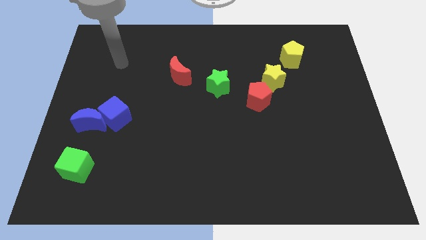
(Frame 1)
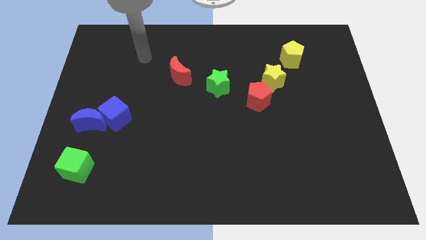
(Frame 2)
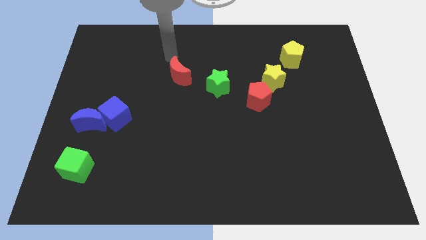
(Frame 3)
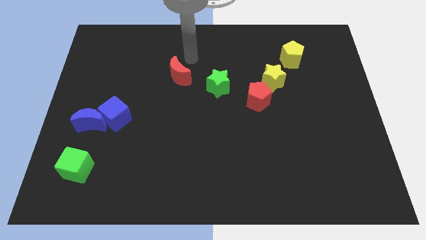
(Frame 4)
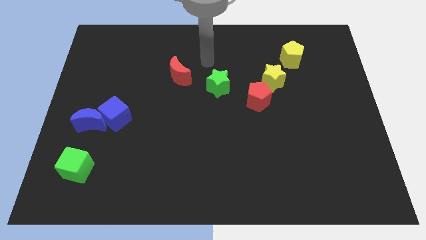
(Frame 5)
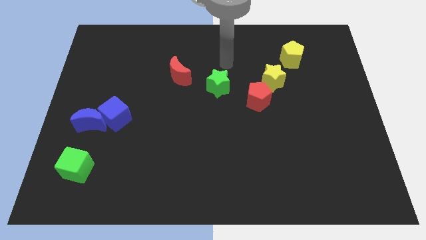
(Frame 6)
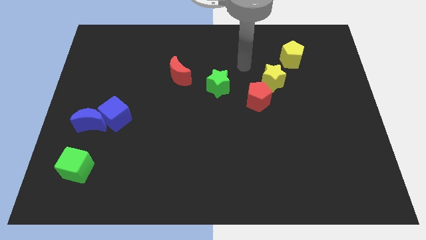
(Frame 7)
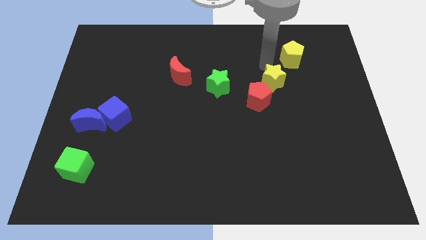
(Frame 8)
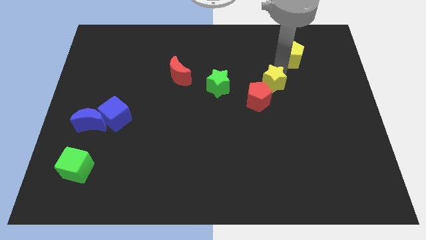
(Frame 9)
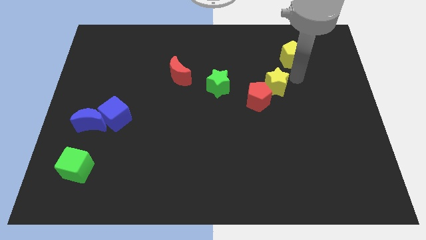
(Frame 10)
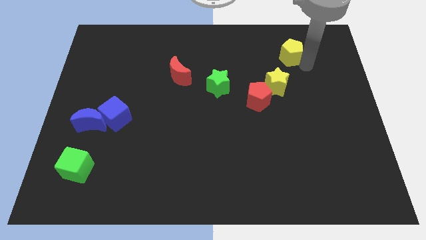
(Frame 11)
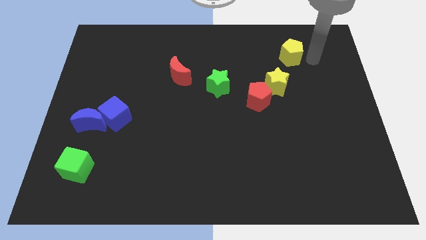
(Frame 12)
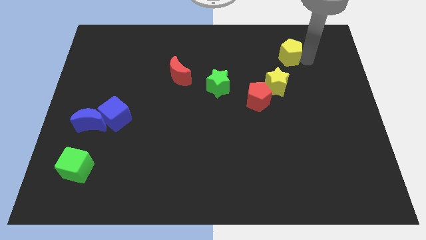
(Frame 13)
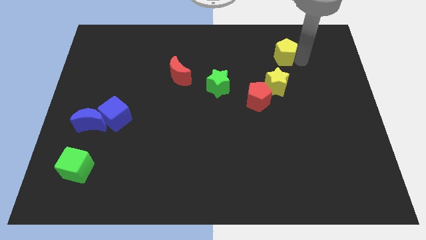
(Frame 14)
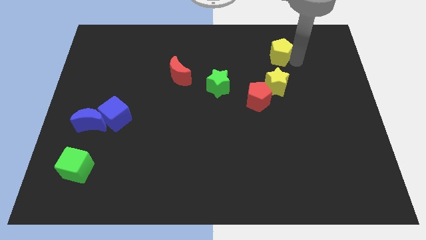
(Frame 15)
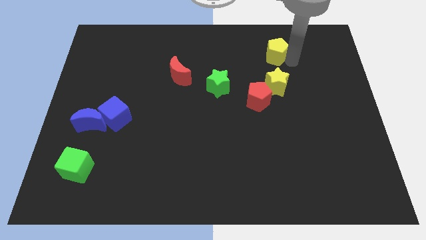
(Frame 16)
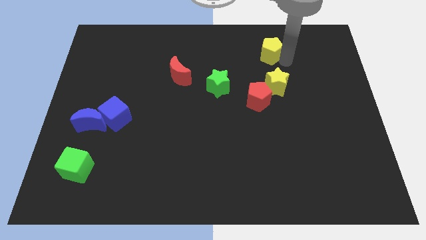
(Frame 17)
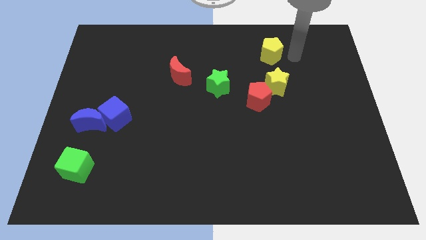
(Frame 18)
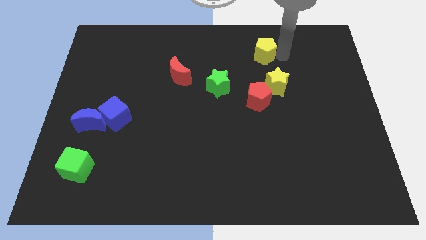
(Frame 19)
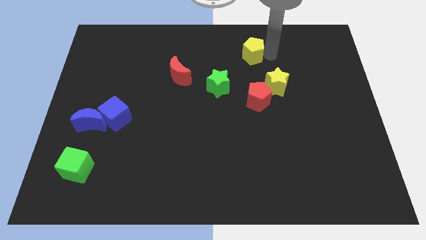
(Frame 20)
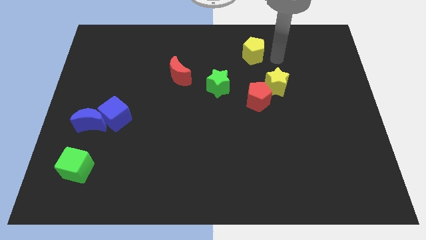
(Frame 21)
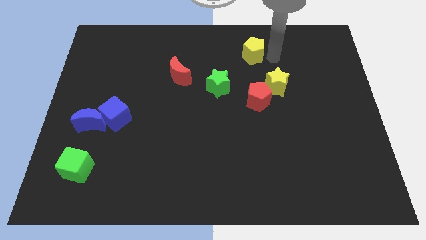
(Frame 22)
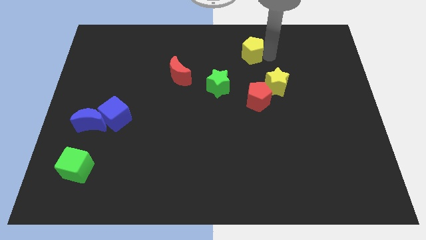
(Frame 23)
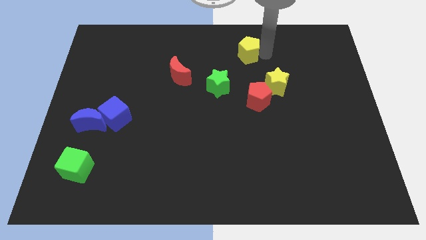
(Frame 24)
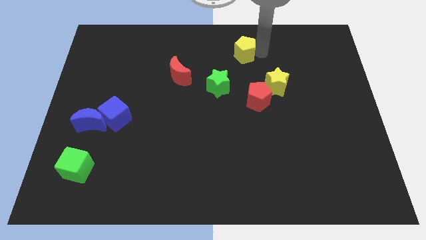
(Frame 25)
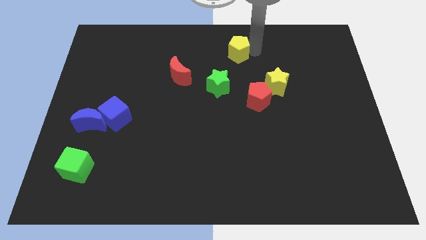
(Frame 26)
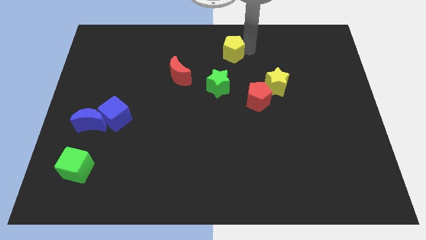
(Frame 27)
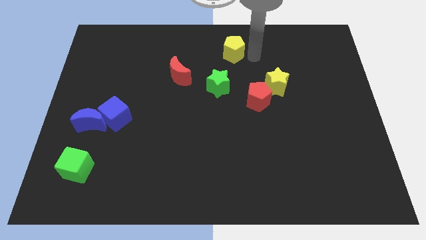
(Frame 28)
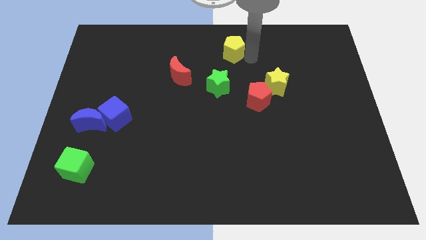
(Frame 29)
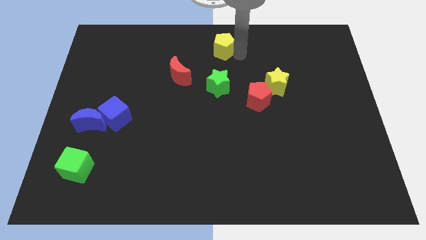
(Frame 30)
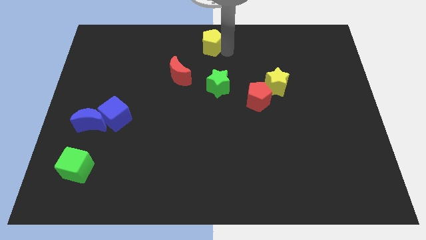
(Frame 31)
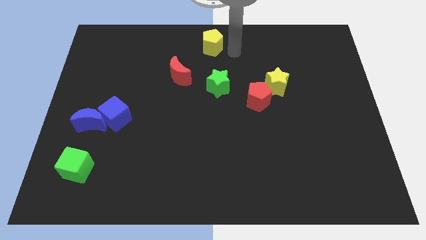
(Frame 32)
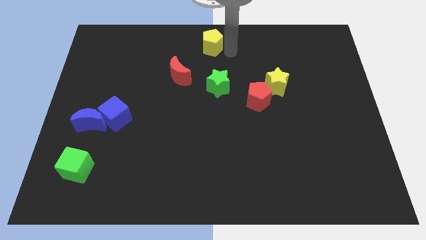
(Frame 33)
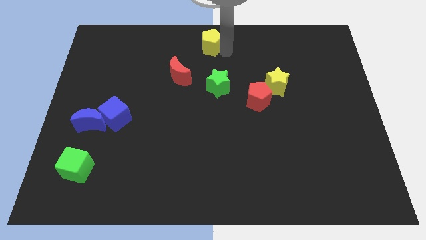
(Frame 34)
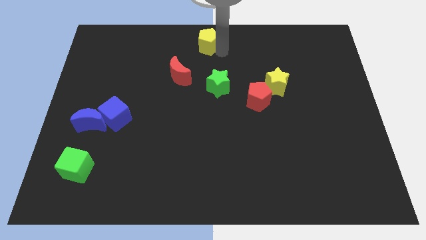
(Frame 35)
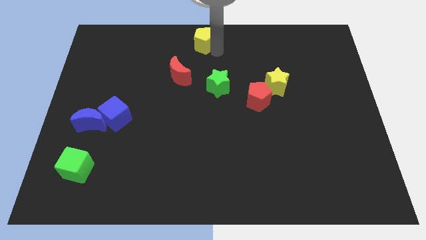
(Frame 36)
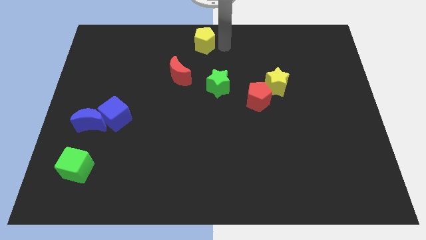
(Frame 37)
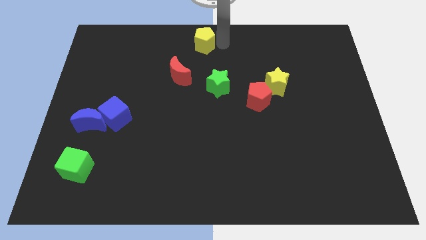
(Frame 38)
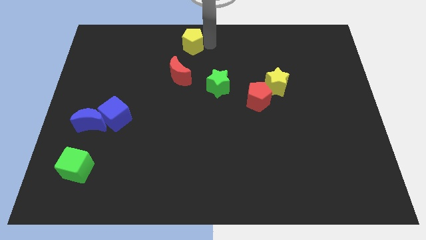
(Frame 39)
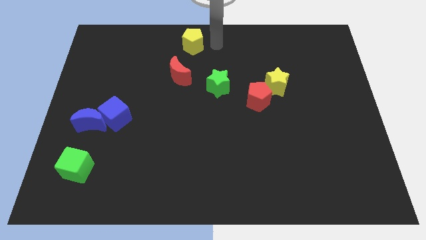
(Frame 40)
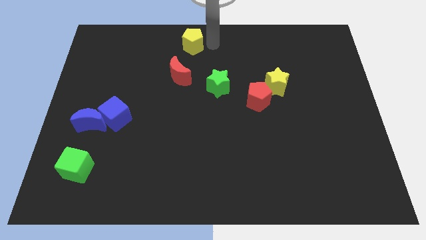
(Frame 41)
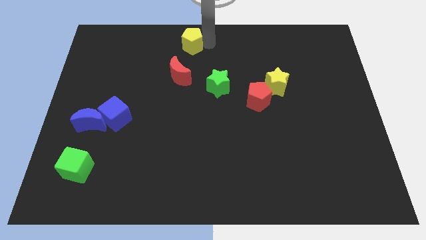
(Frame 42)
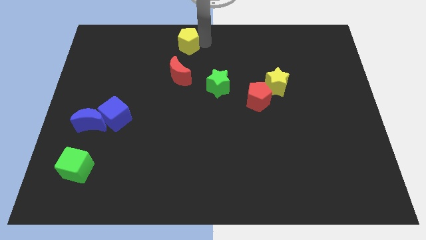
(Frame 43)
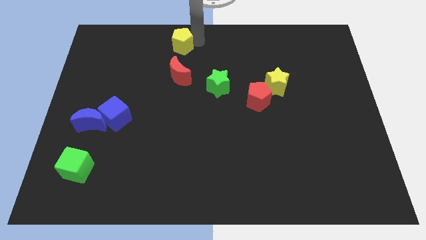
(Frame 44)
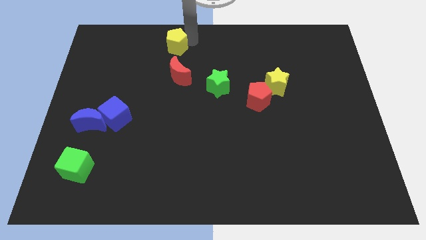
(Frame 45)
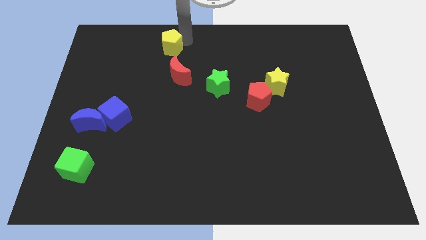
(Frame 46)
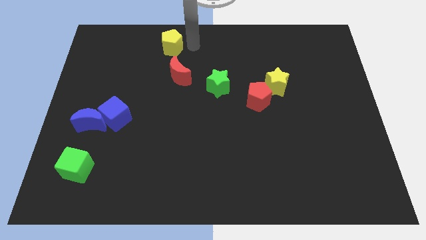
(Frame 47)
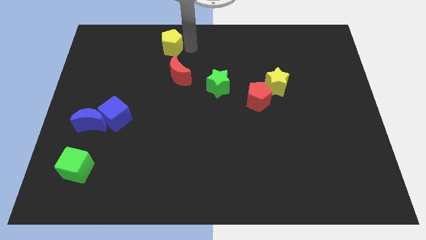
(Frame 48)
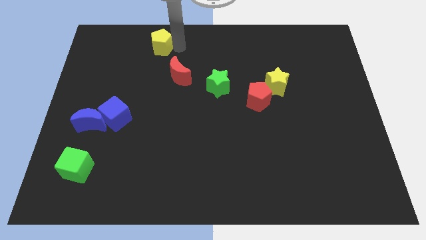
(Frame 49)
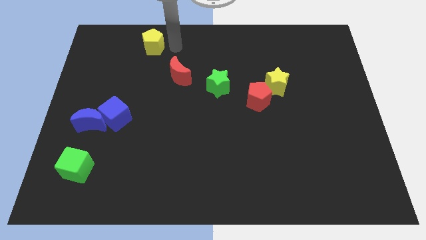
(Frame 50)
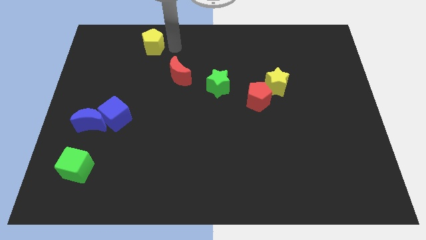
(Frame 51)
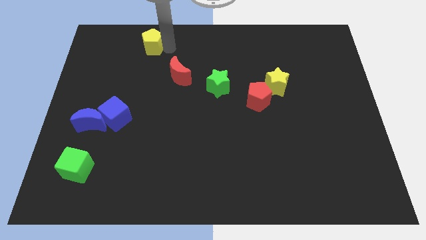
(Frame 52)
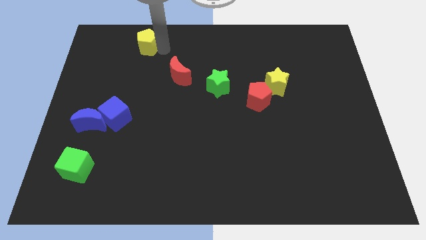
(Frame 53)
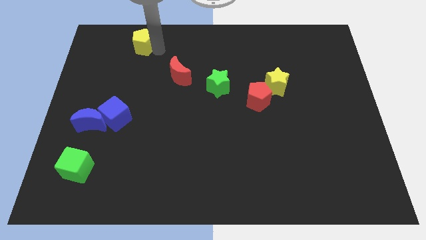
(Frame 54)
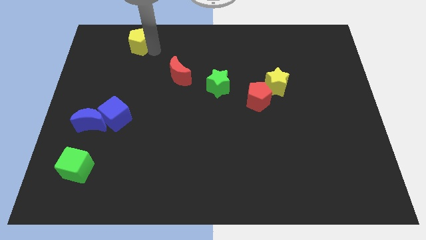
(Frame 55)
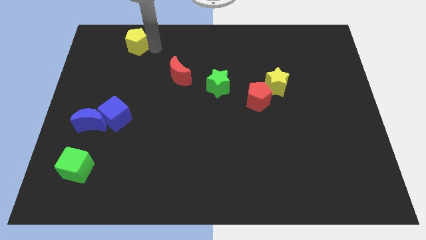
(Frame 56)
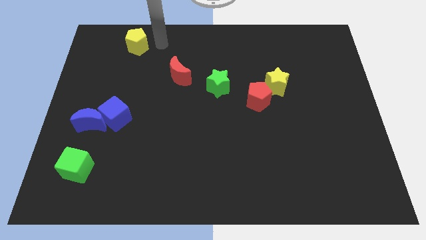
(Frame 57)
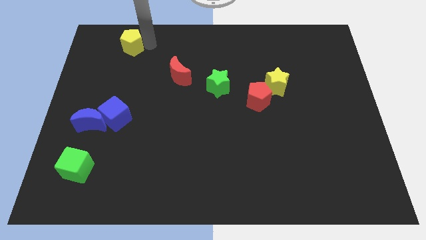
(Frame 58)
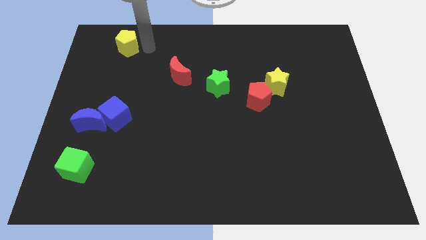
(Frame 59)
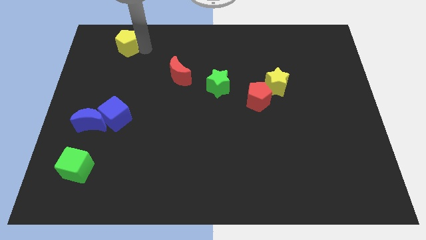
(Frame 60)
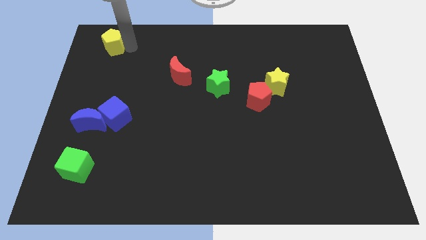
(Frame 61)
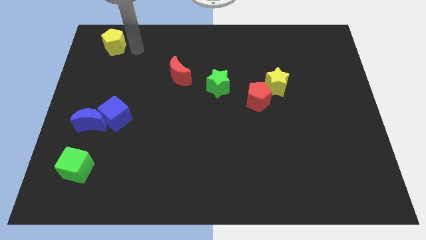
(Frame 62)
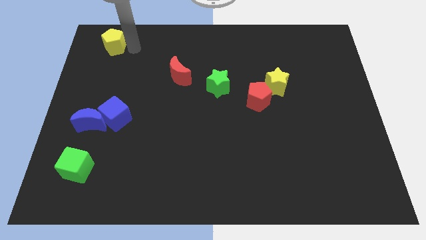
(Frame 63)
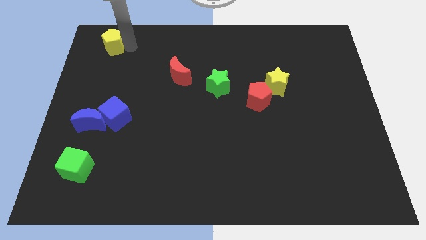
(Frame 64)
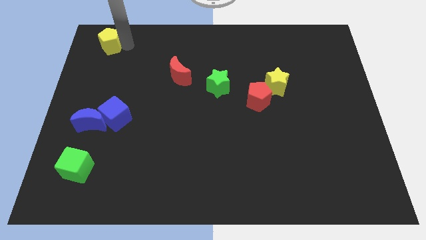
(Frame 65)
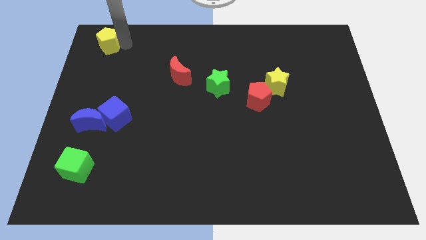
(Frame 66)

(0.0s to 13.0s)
push the yellow pentagon to the upper left corner

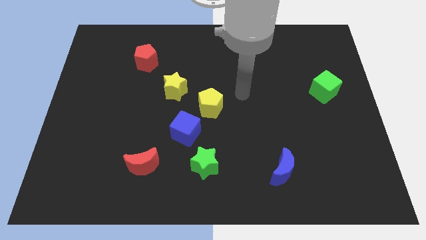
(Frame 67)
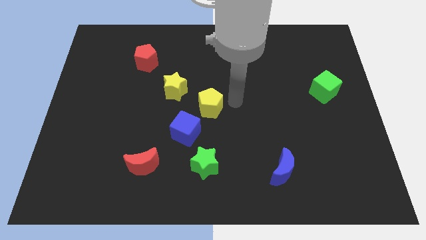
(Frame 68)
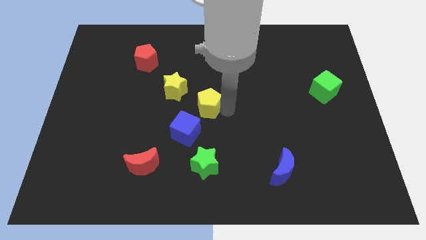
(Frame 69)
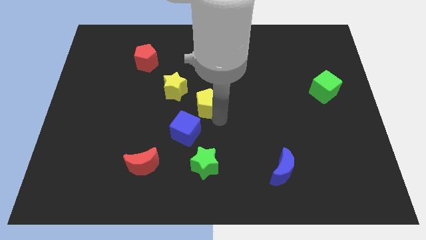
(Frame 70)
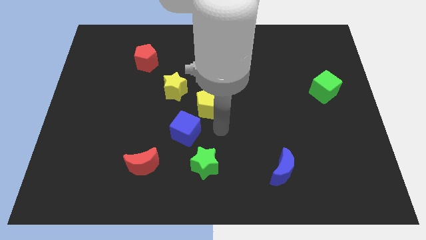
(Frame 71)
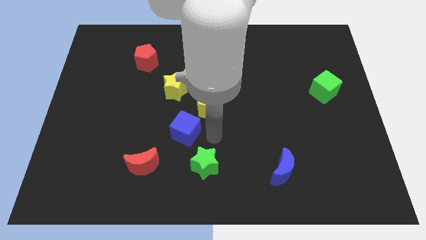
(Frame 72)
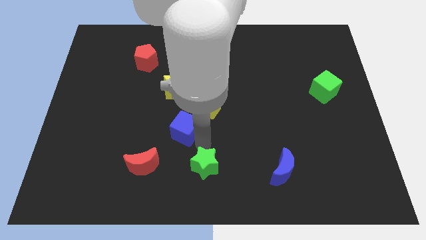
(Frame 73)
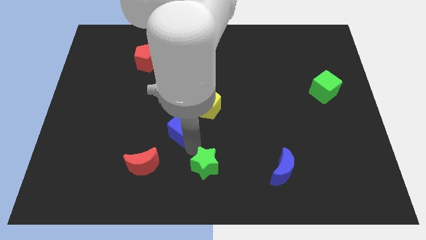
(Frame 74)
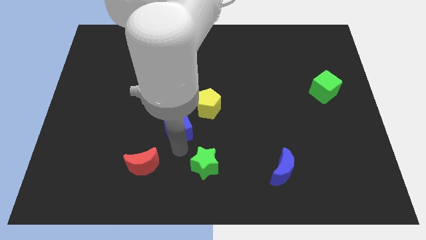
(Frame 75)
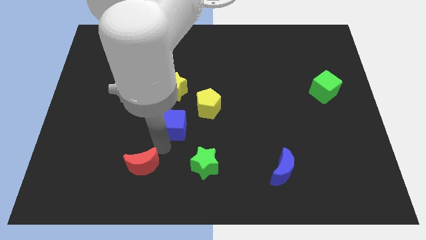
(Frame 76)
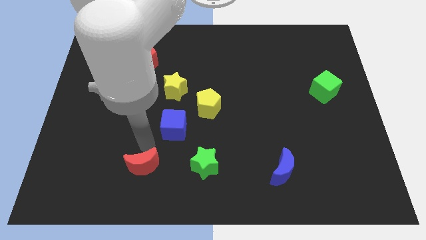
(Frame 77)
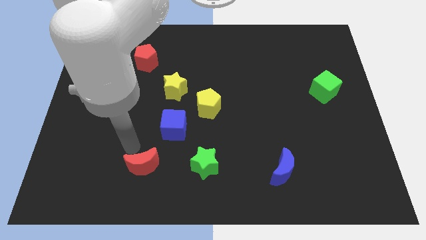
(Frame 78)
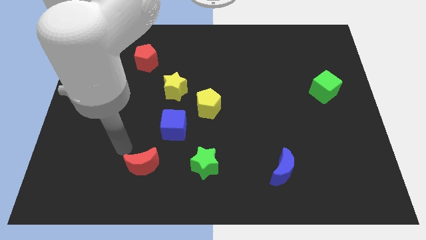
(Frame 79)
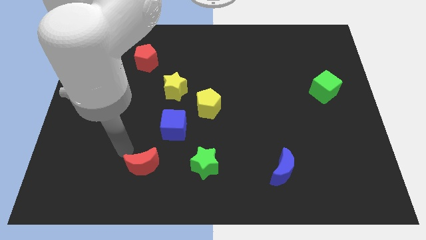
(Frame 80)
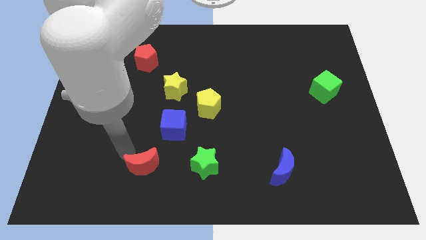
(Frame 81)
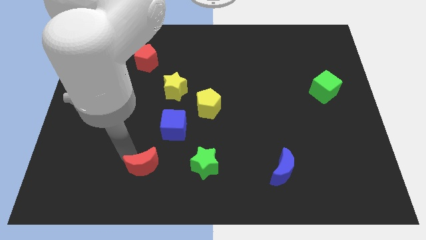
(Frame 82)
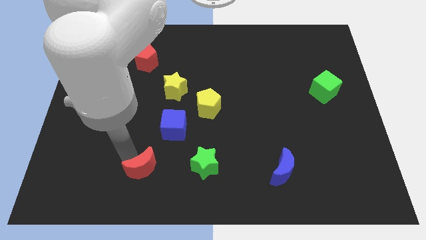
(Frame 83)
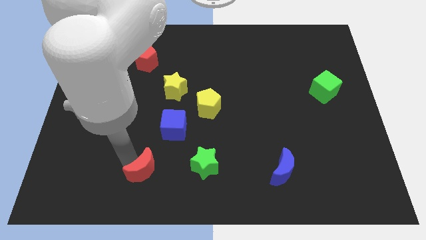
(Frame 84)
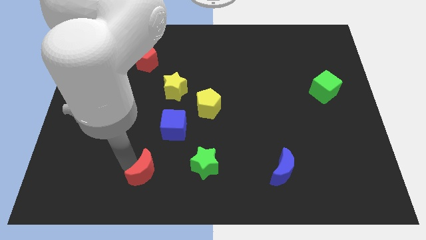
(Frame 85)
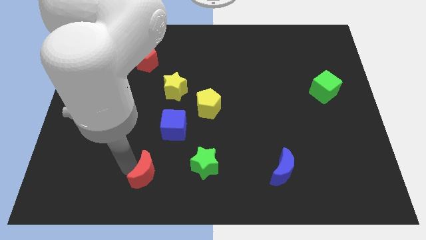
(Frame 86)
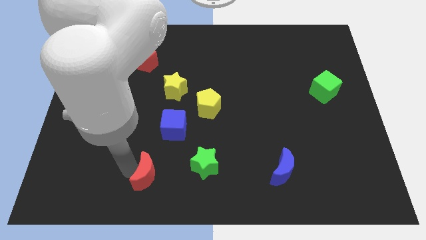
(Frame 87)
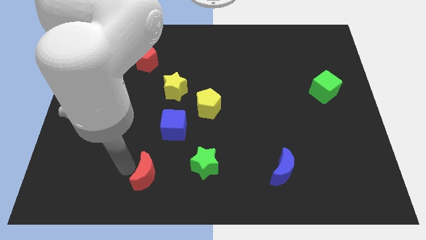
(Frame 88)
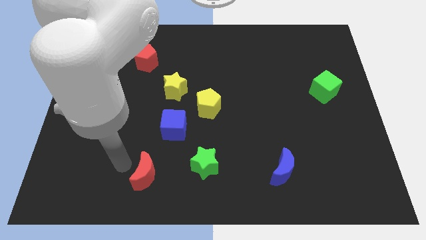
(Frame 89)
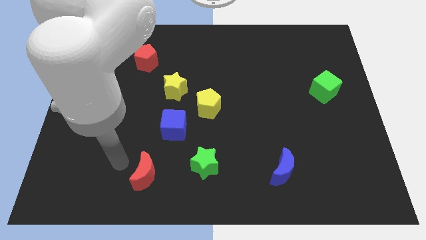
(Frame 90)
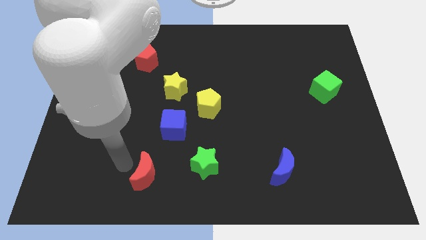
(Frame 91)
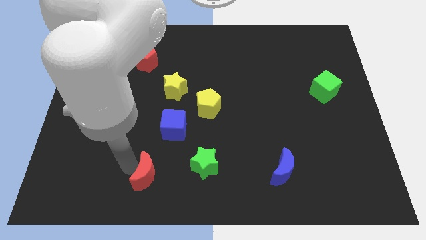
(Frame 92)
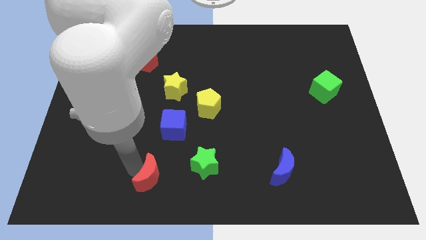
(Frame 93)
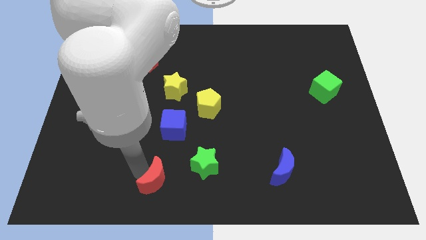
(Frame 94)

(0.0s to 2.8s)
put the red moon to the bottom side
